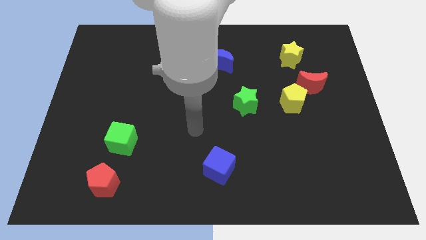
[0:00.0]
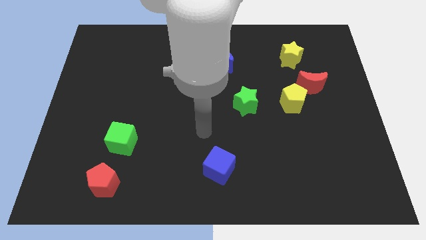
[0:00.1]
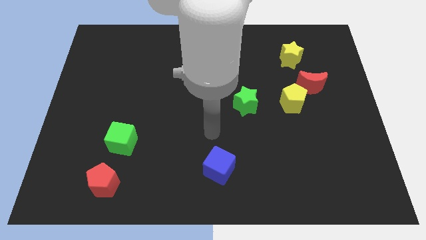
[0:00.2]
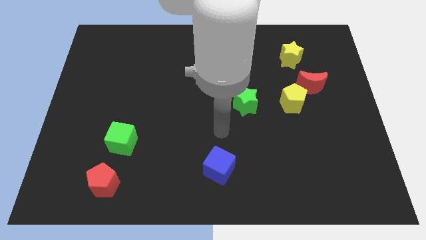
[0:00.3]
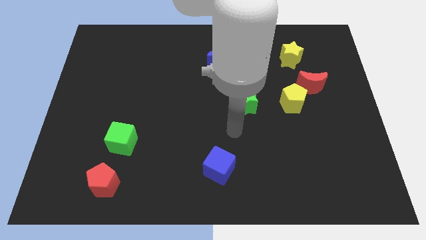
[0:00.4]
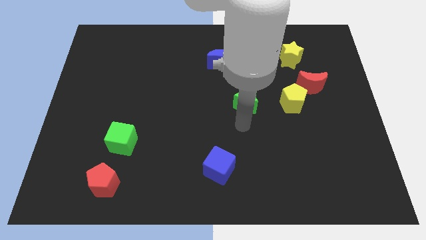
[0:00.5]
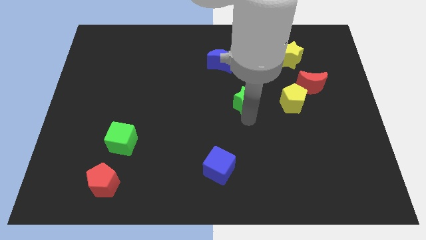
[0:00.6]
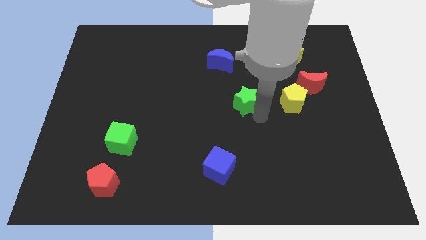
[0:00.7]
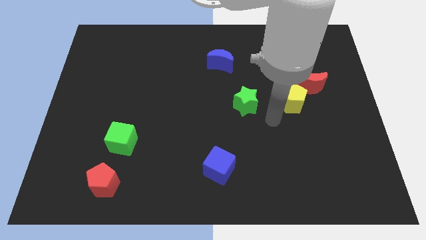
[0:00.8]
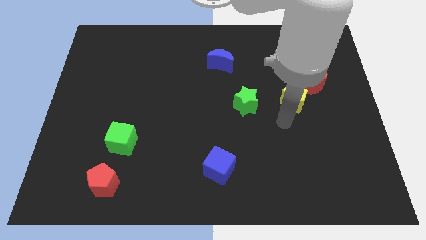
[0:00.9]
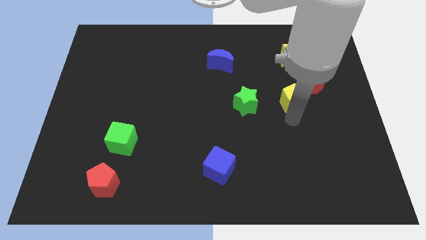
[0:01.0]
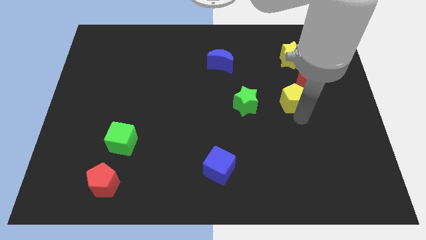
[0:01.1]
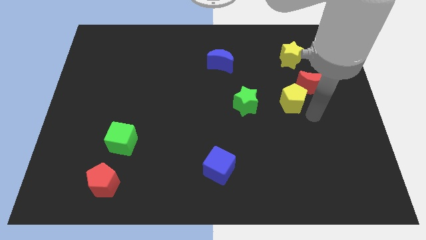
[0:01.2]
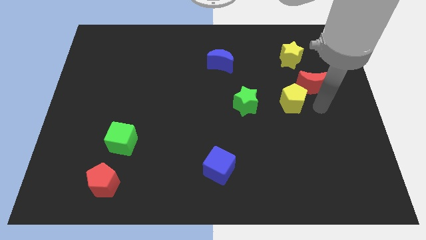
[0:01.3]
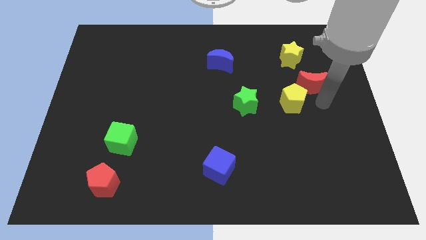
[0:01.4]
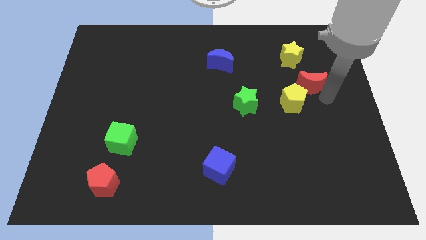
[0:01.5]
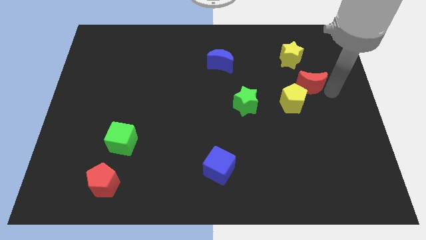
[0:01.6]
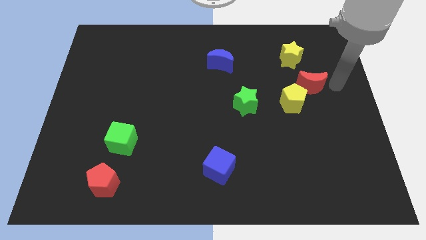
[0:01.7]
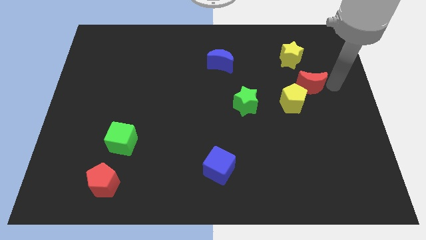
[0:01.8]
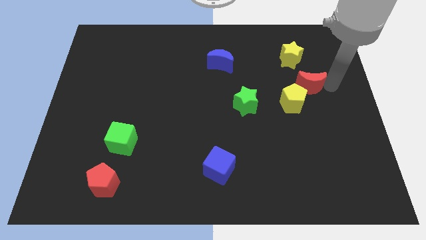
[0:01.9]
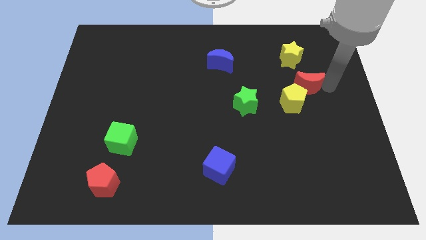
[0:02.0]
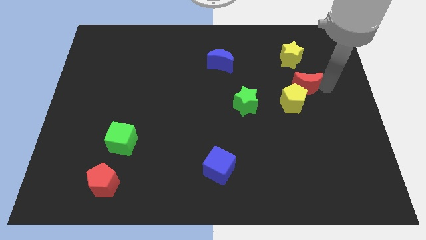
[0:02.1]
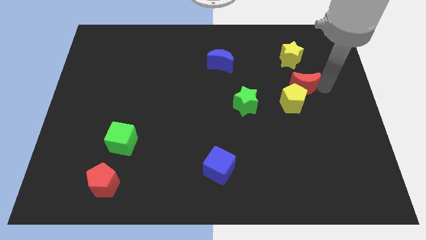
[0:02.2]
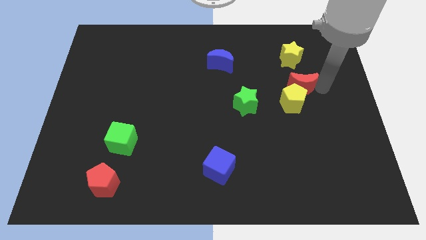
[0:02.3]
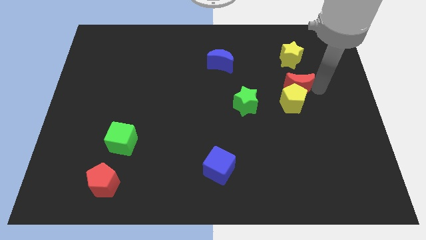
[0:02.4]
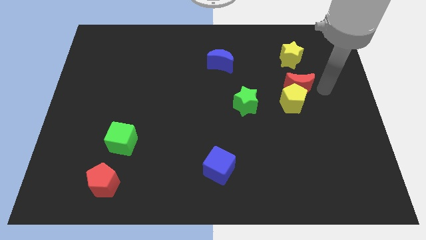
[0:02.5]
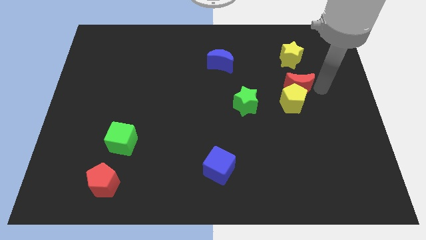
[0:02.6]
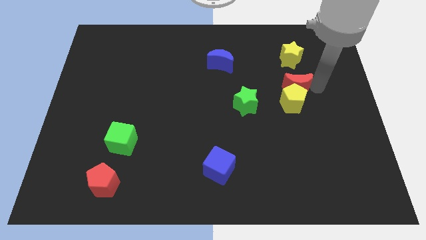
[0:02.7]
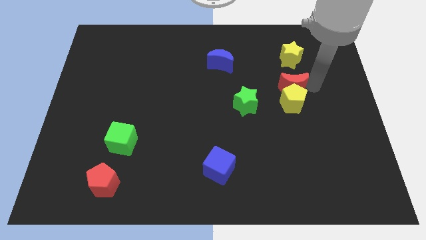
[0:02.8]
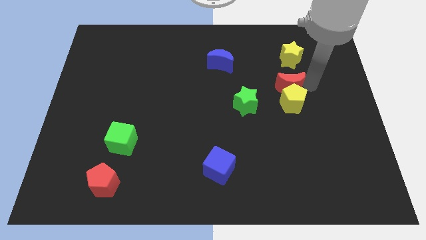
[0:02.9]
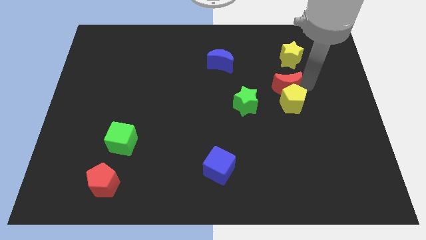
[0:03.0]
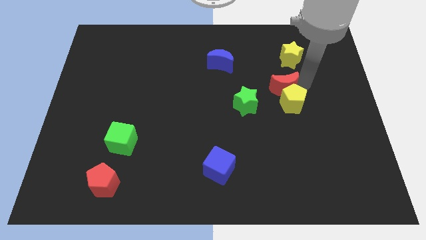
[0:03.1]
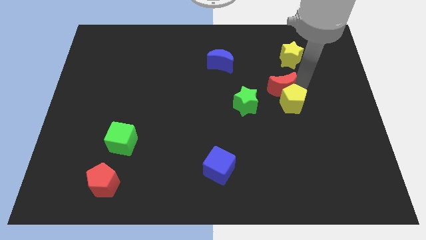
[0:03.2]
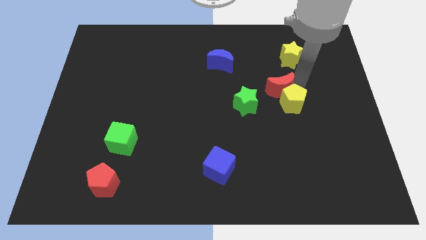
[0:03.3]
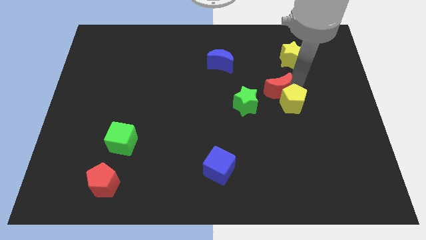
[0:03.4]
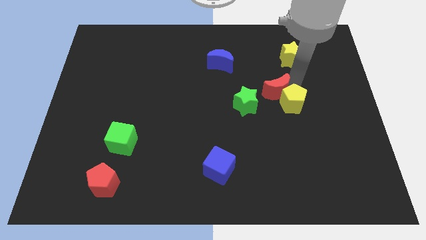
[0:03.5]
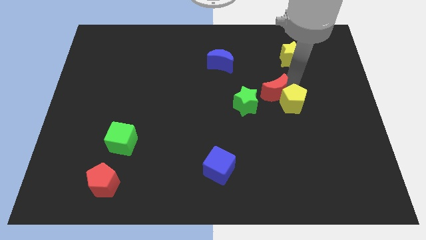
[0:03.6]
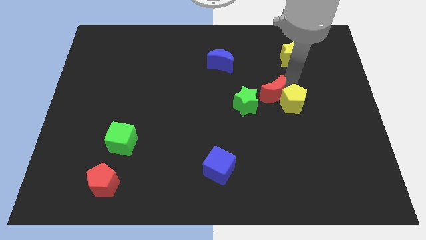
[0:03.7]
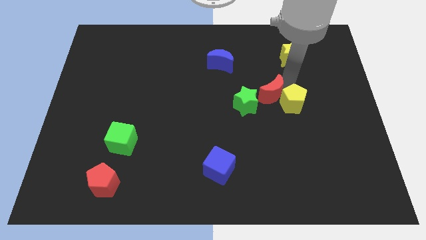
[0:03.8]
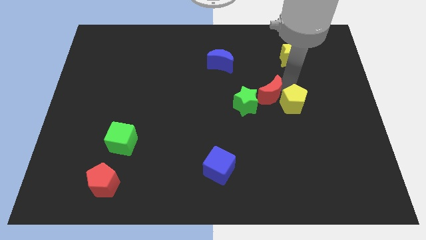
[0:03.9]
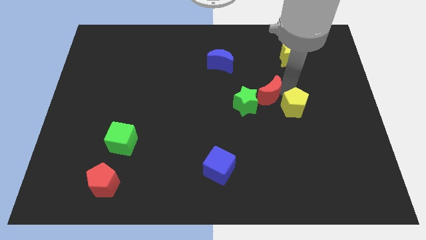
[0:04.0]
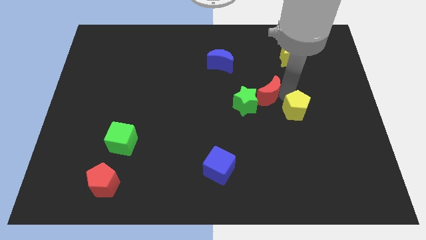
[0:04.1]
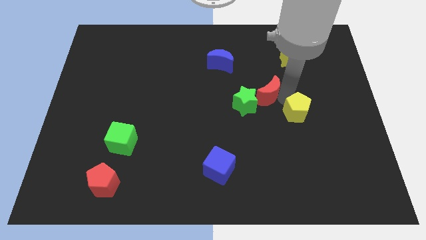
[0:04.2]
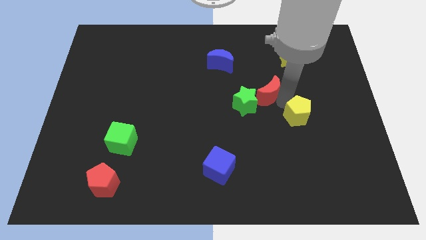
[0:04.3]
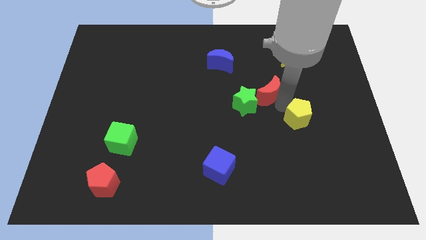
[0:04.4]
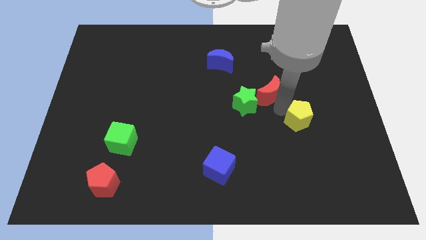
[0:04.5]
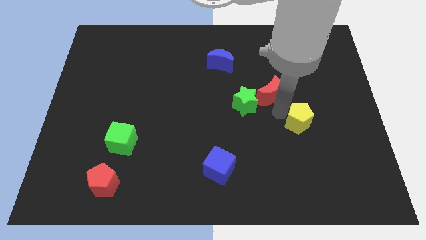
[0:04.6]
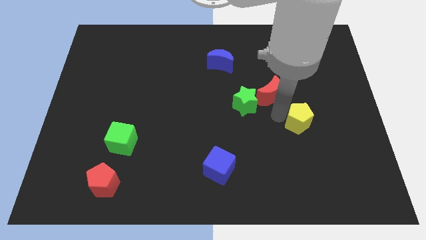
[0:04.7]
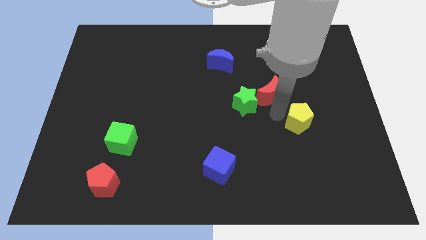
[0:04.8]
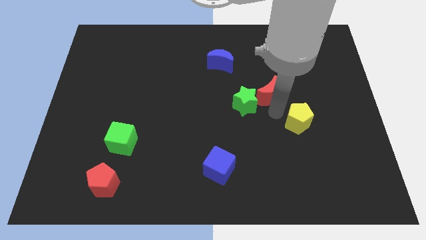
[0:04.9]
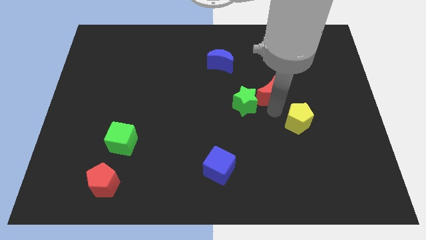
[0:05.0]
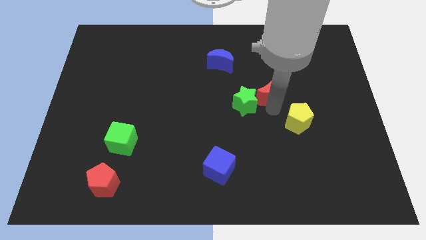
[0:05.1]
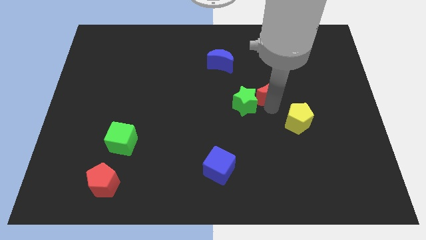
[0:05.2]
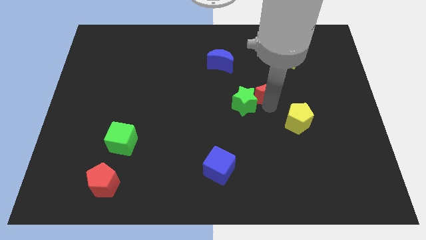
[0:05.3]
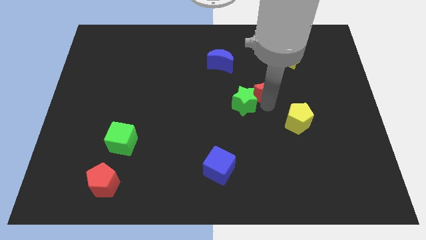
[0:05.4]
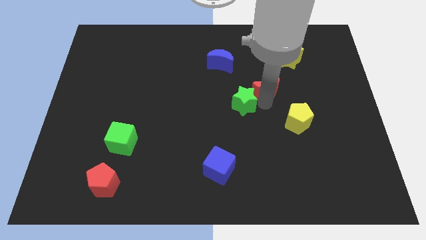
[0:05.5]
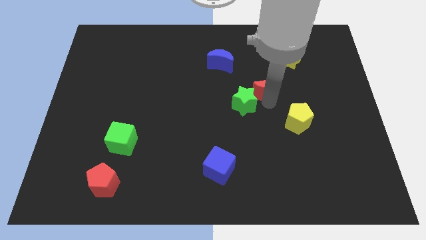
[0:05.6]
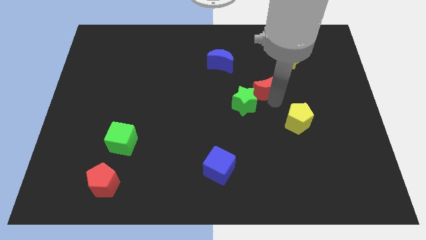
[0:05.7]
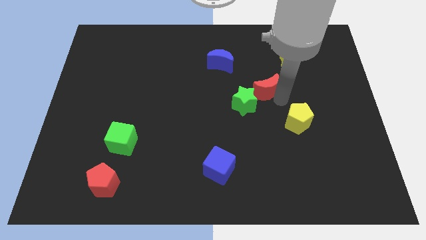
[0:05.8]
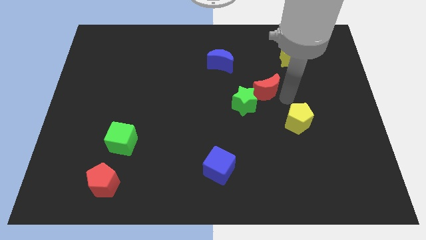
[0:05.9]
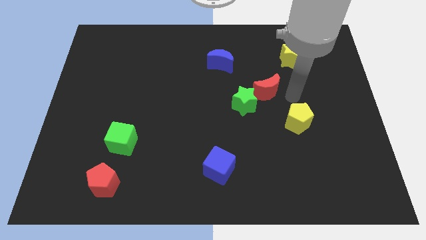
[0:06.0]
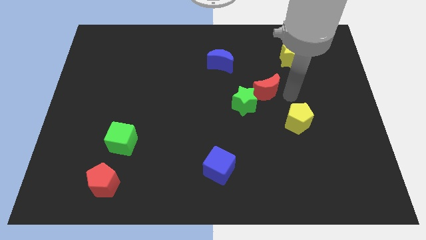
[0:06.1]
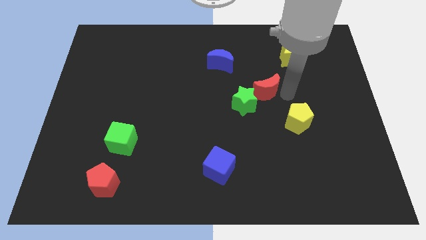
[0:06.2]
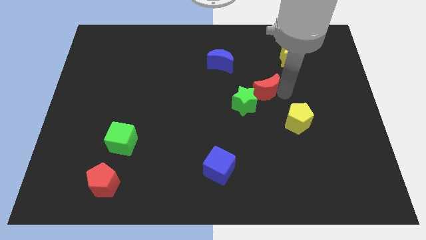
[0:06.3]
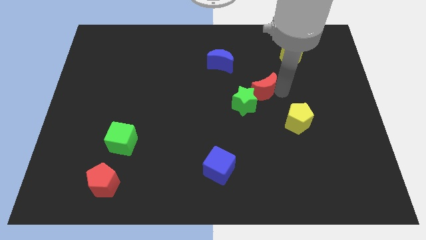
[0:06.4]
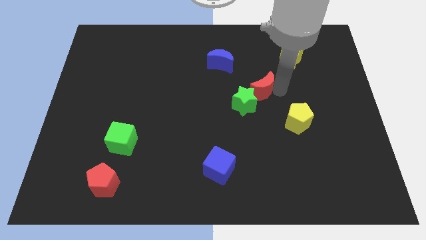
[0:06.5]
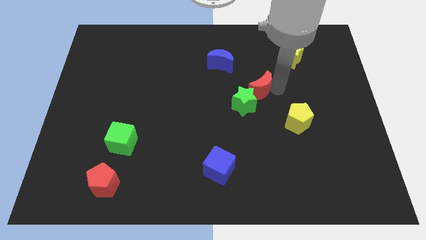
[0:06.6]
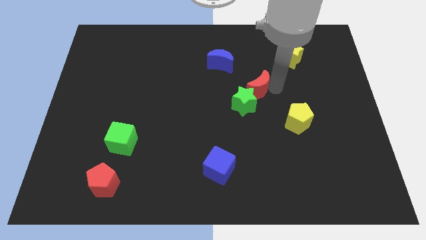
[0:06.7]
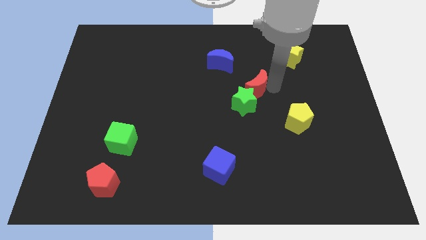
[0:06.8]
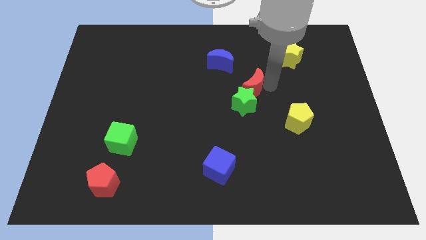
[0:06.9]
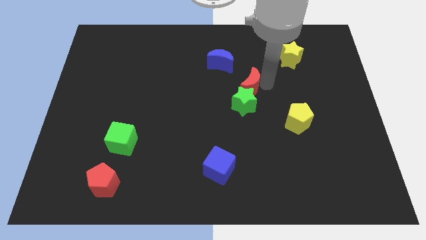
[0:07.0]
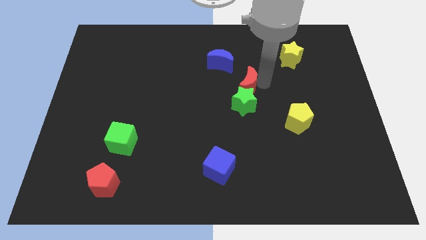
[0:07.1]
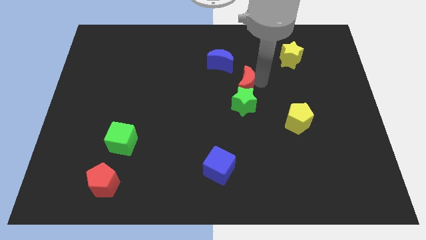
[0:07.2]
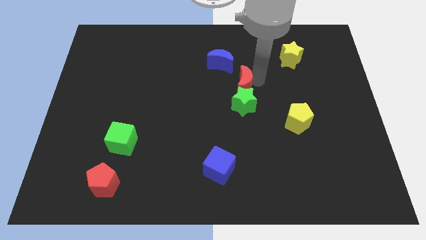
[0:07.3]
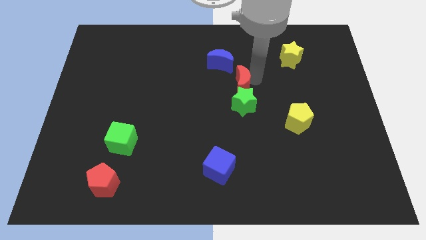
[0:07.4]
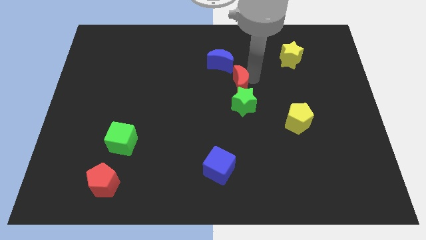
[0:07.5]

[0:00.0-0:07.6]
push the red moon below the blue moon
